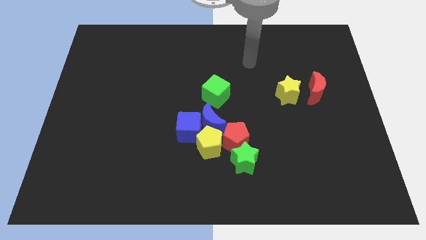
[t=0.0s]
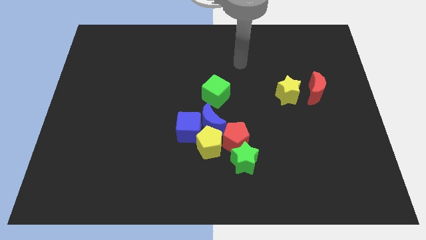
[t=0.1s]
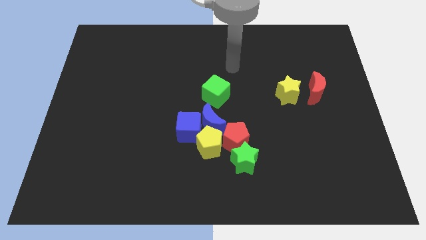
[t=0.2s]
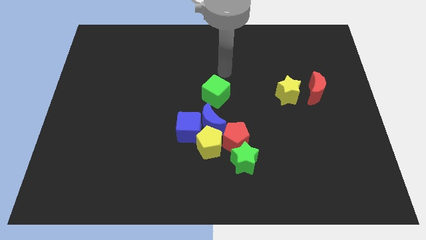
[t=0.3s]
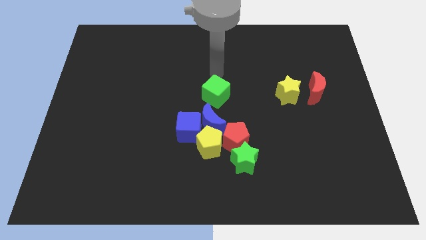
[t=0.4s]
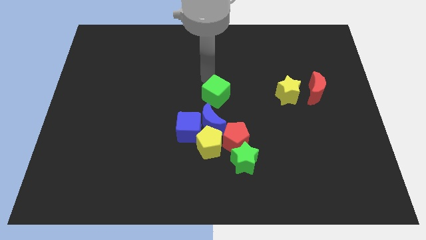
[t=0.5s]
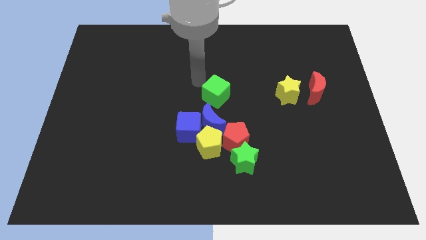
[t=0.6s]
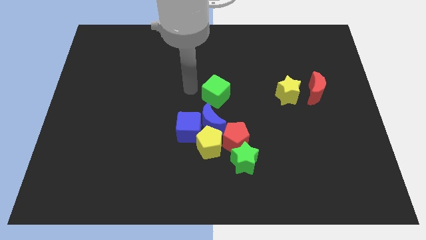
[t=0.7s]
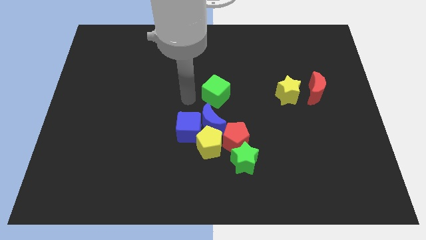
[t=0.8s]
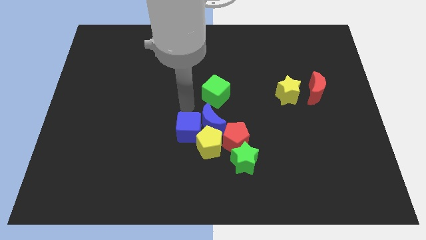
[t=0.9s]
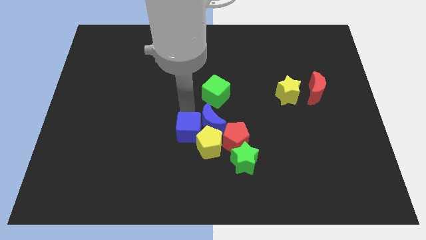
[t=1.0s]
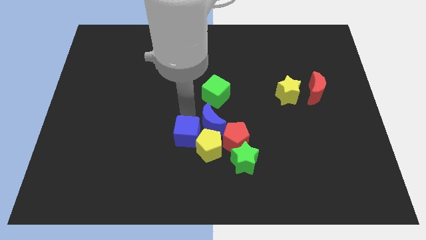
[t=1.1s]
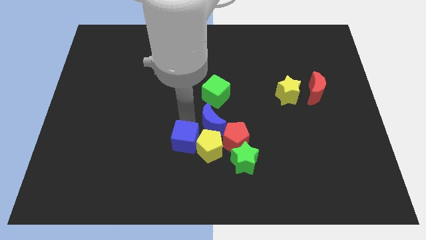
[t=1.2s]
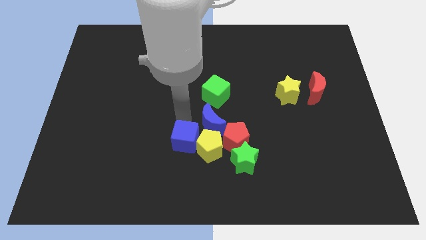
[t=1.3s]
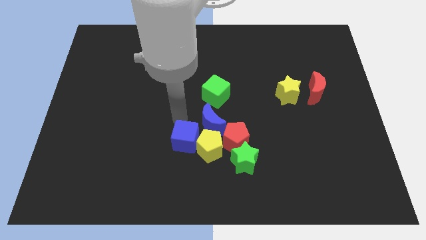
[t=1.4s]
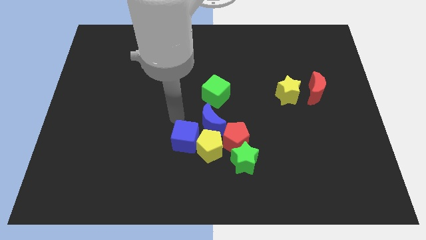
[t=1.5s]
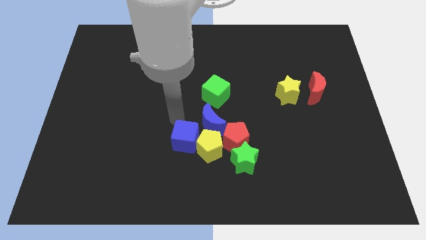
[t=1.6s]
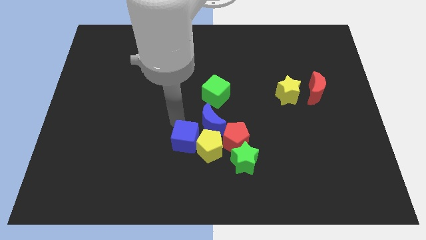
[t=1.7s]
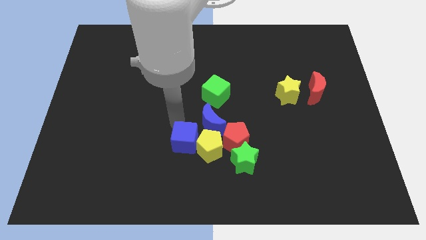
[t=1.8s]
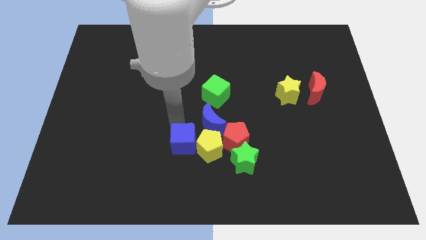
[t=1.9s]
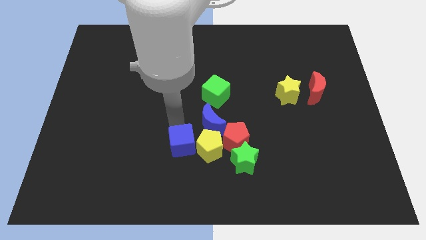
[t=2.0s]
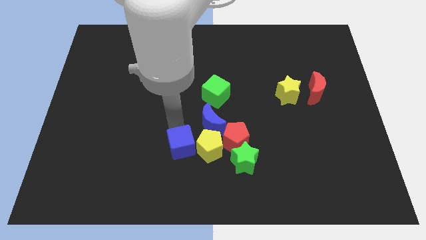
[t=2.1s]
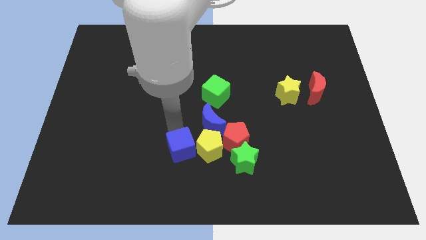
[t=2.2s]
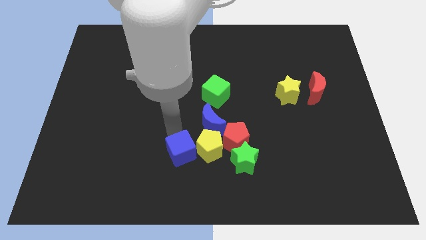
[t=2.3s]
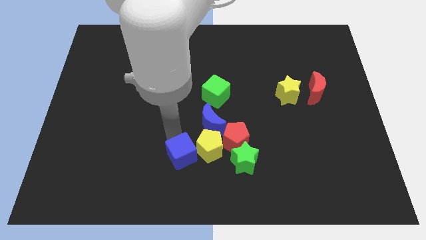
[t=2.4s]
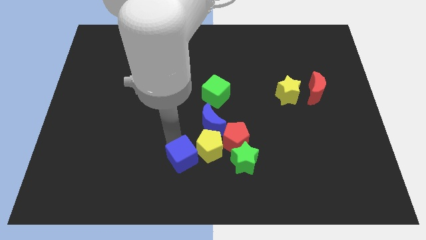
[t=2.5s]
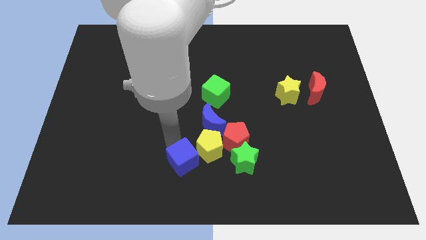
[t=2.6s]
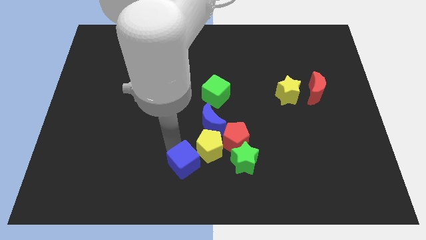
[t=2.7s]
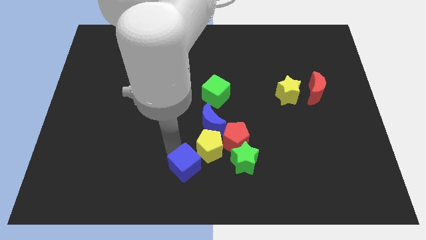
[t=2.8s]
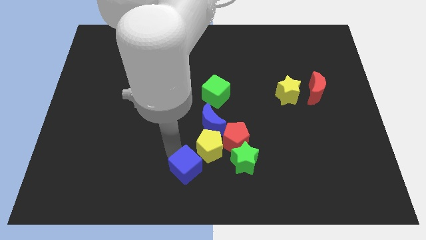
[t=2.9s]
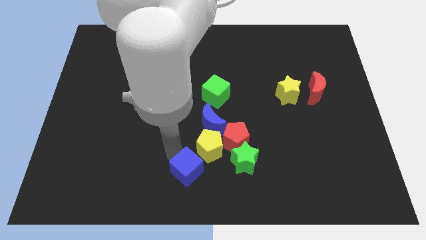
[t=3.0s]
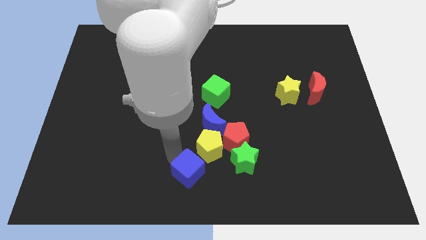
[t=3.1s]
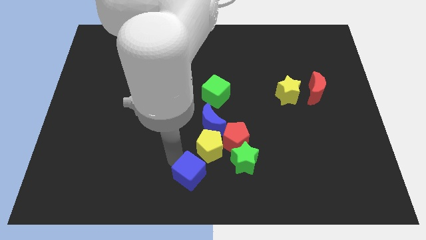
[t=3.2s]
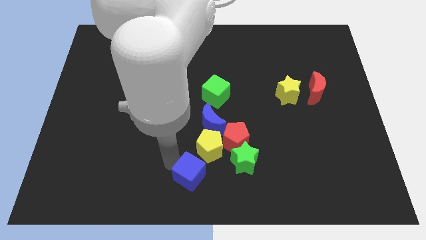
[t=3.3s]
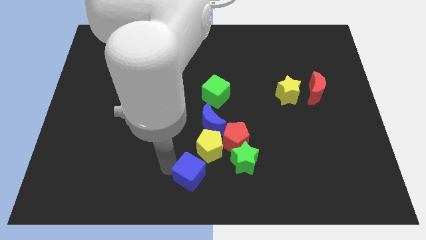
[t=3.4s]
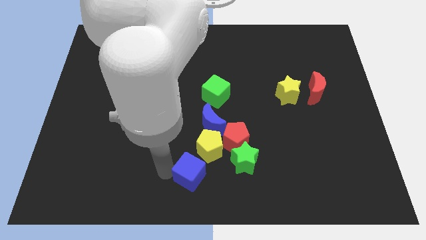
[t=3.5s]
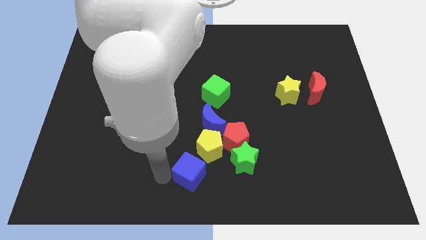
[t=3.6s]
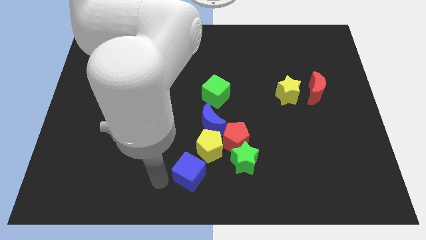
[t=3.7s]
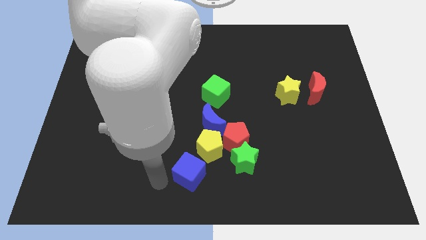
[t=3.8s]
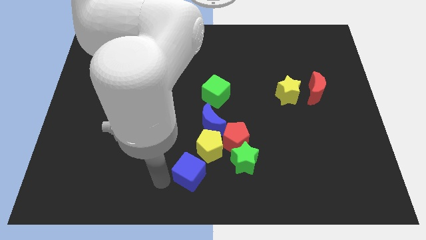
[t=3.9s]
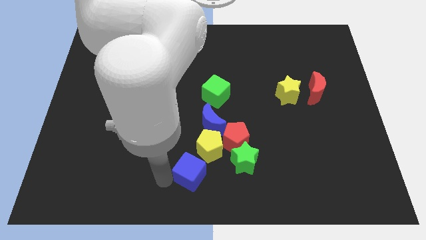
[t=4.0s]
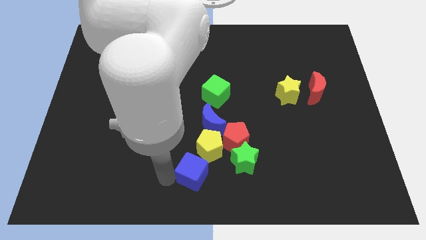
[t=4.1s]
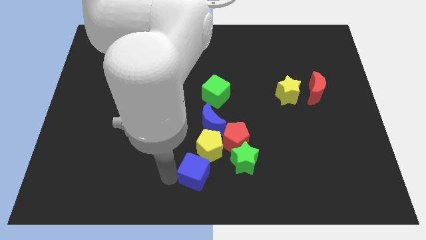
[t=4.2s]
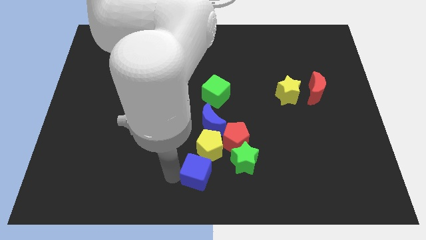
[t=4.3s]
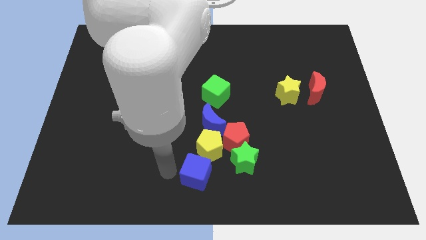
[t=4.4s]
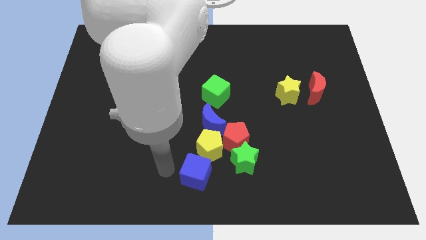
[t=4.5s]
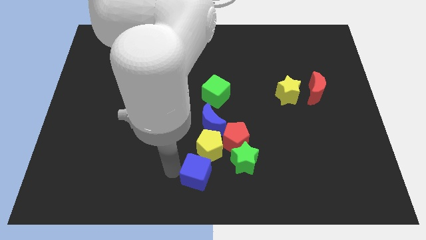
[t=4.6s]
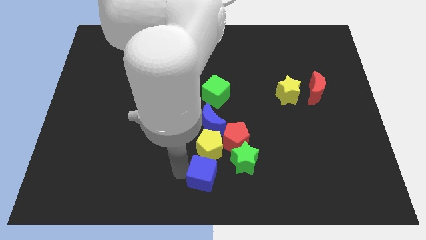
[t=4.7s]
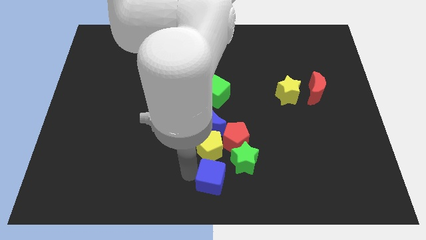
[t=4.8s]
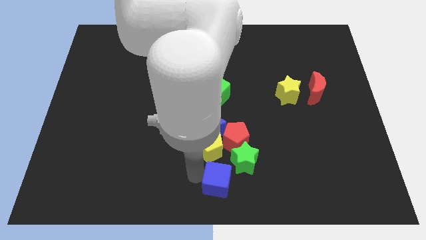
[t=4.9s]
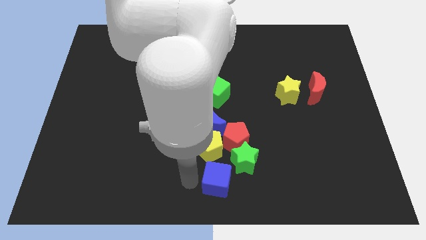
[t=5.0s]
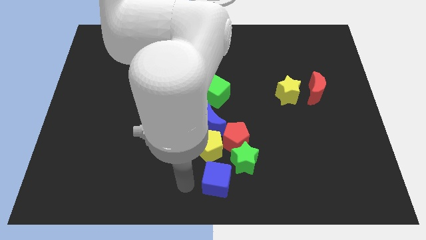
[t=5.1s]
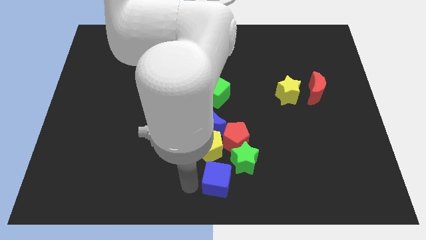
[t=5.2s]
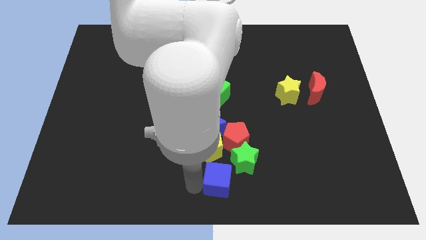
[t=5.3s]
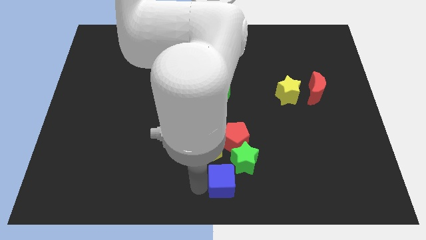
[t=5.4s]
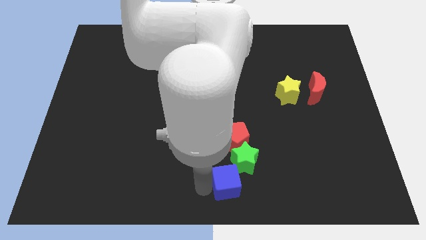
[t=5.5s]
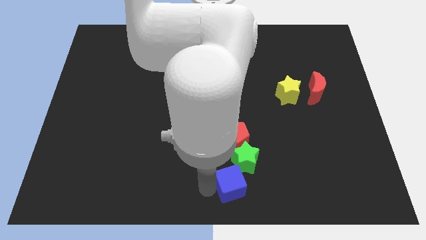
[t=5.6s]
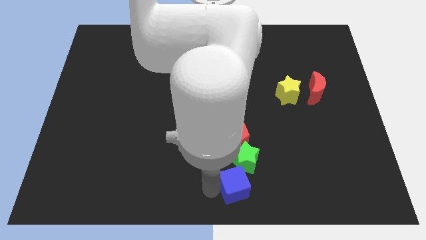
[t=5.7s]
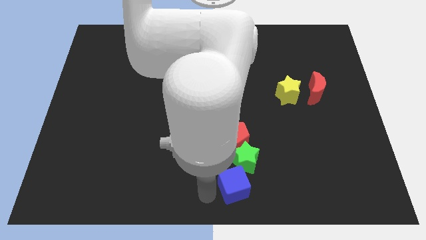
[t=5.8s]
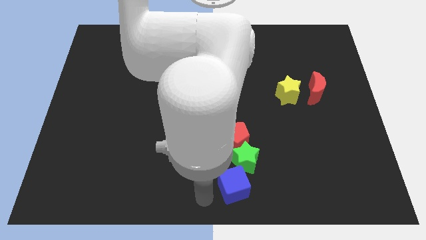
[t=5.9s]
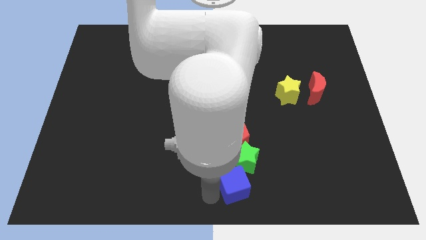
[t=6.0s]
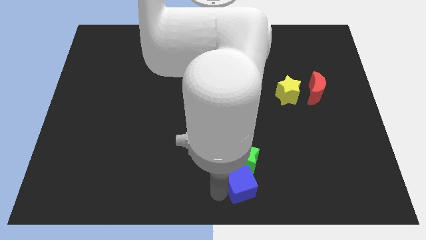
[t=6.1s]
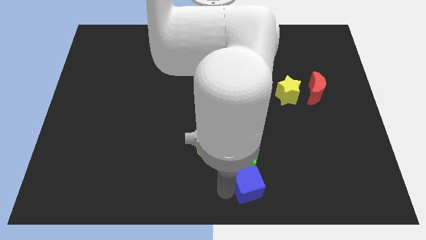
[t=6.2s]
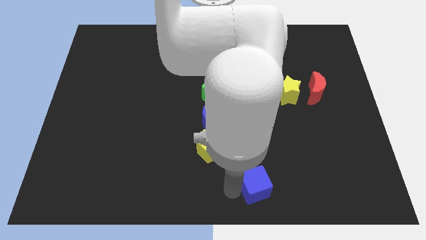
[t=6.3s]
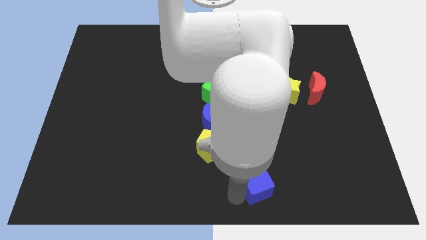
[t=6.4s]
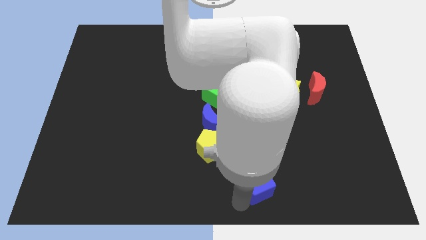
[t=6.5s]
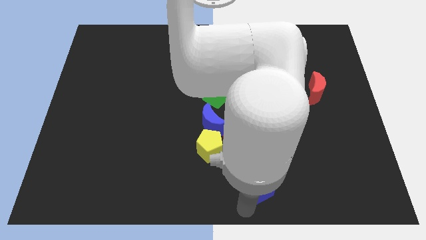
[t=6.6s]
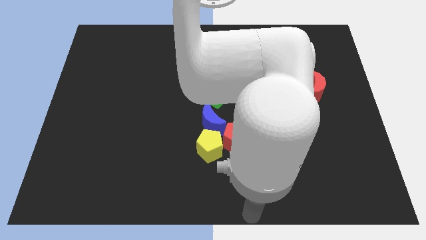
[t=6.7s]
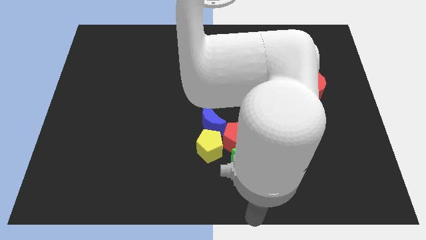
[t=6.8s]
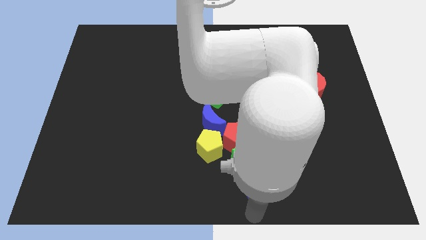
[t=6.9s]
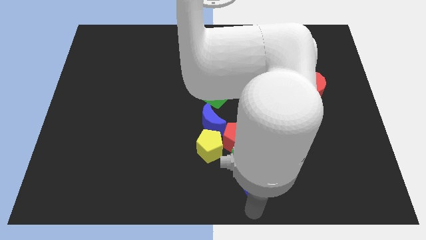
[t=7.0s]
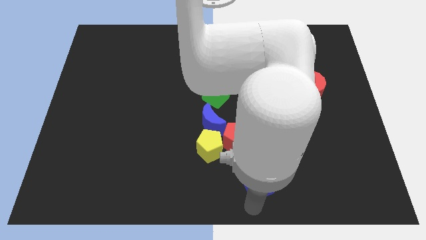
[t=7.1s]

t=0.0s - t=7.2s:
push the blue cube diagonally down and to the right of the red pentagon
